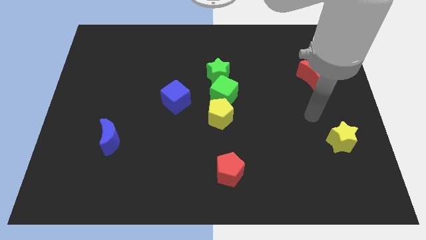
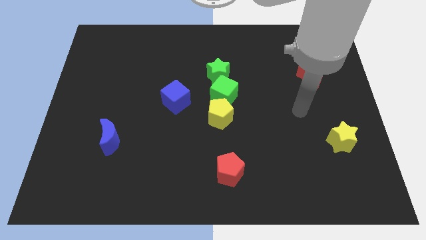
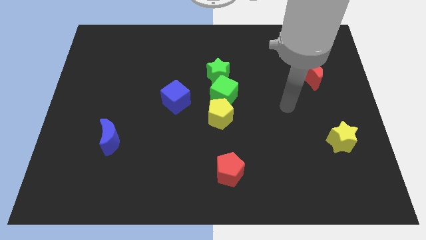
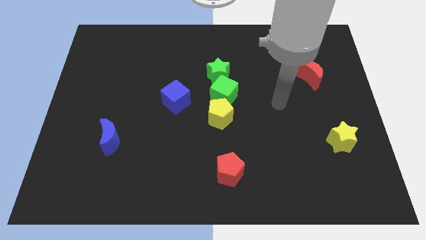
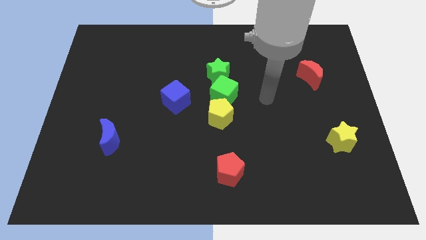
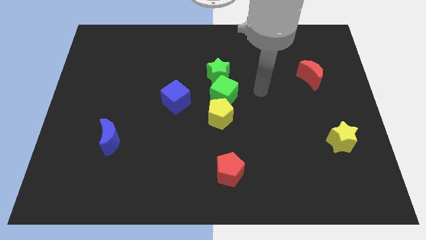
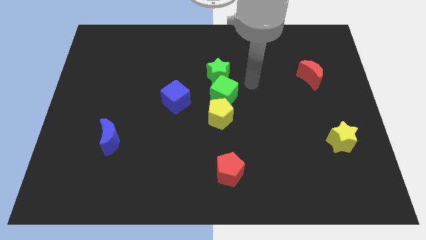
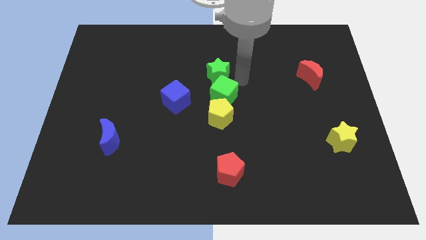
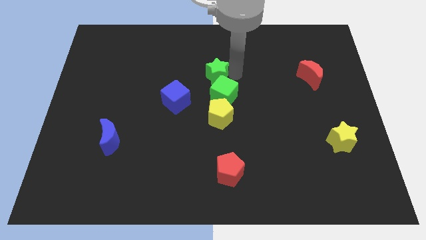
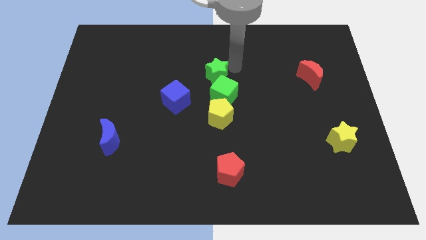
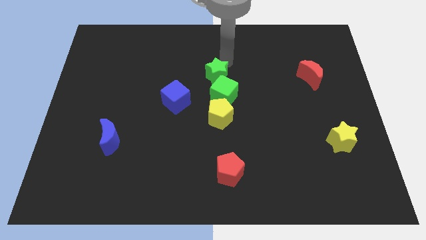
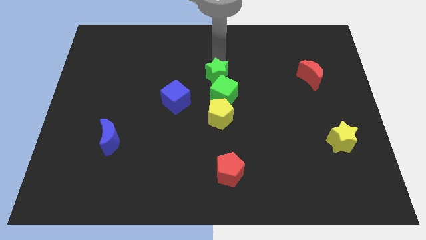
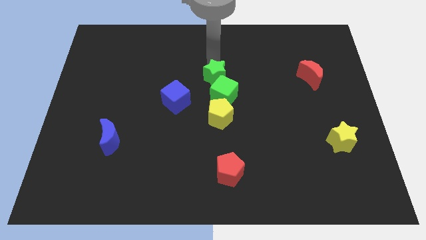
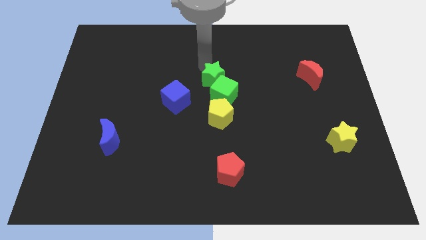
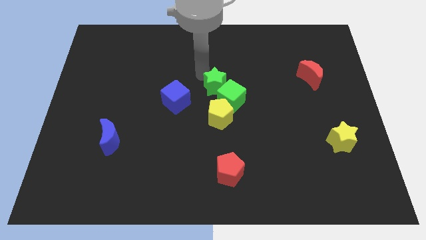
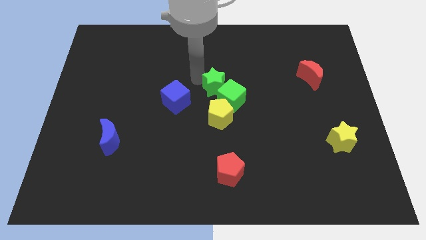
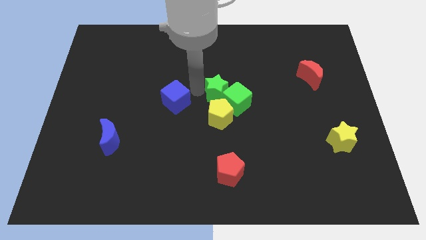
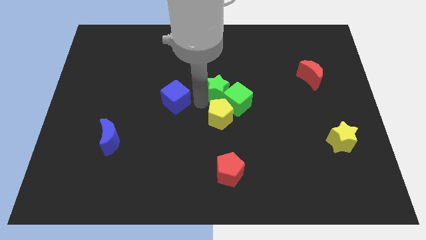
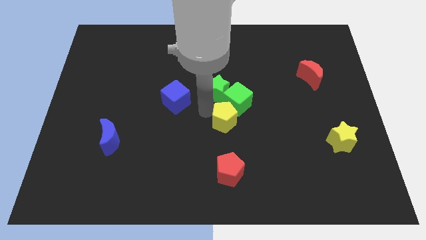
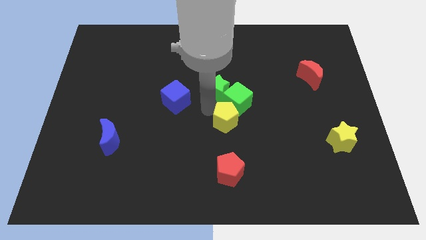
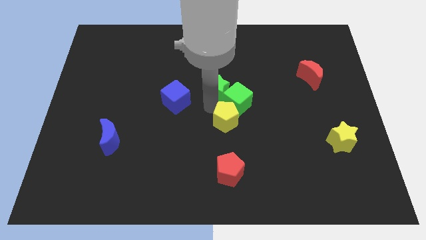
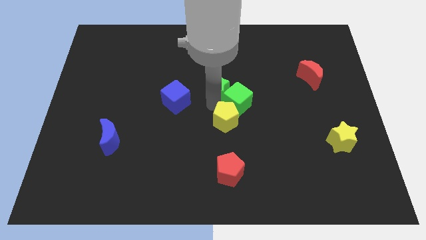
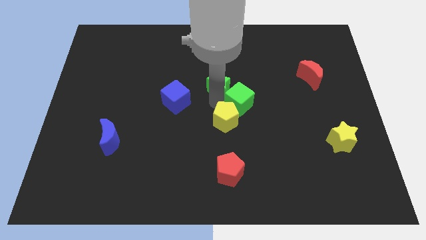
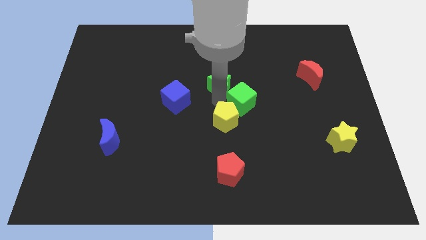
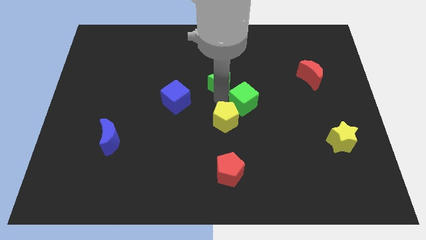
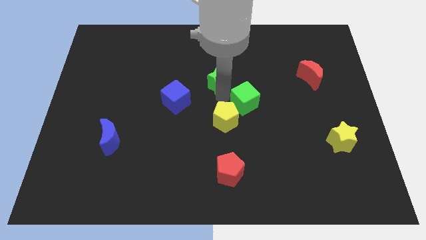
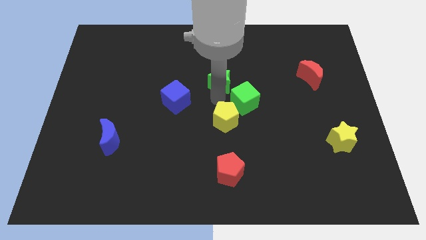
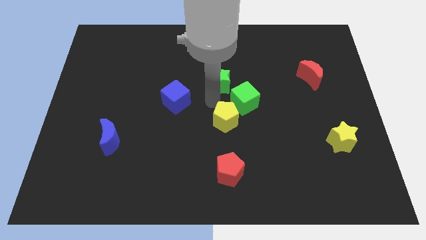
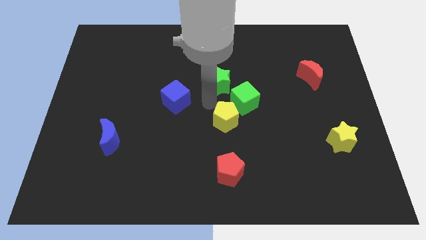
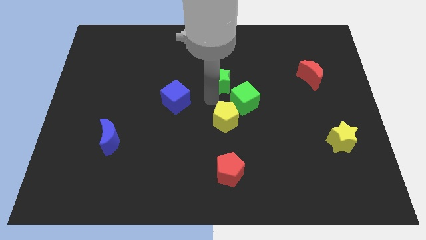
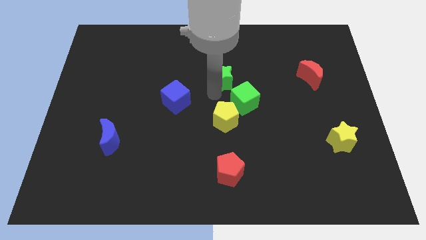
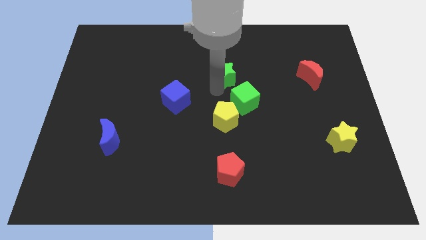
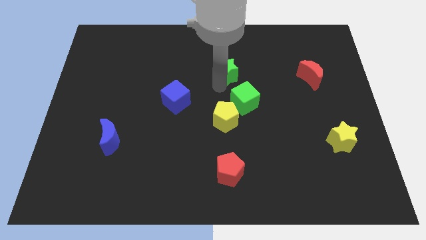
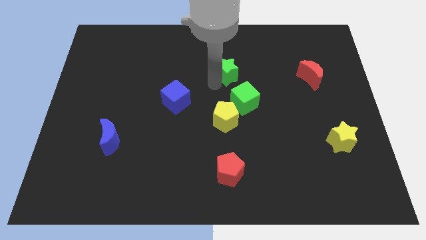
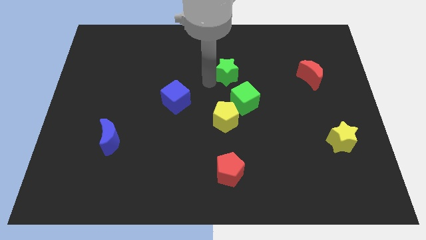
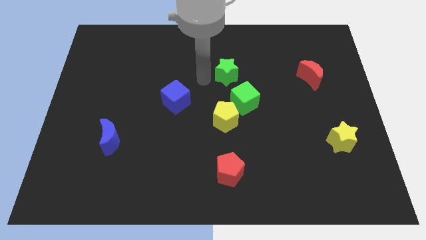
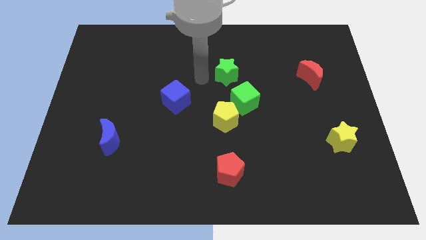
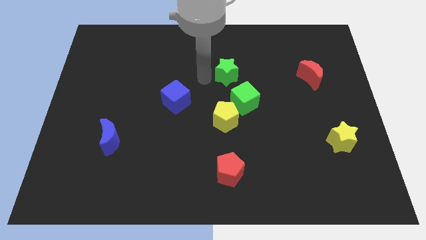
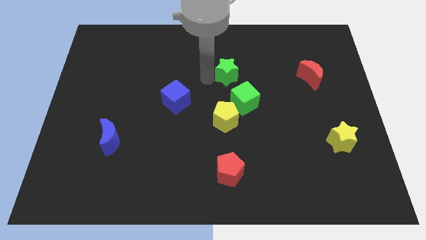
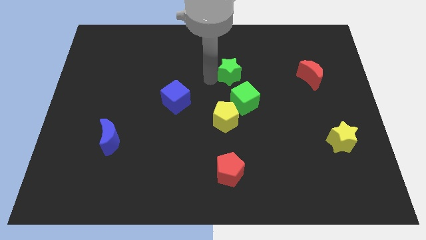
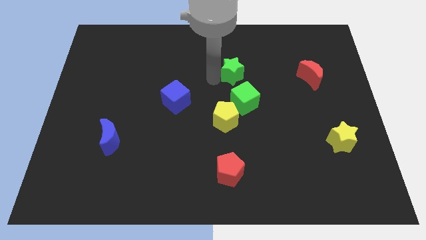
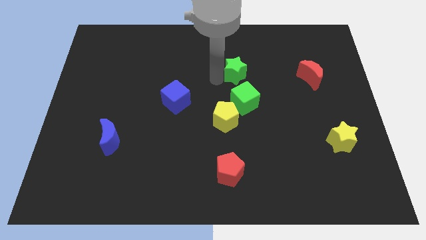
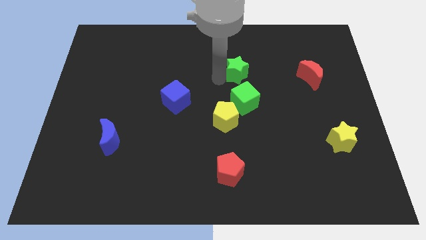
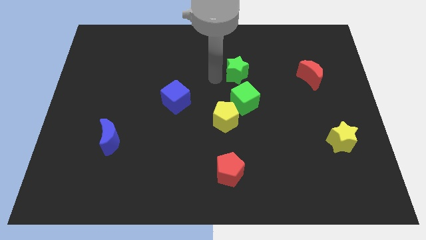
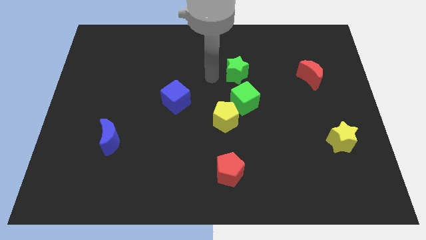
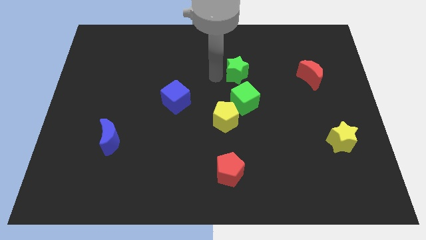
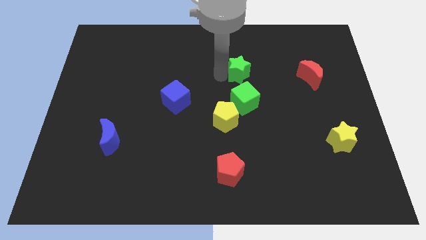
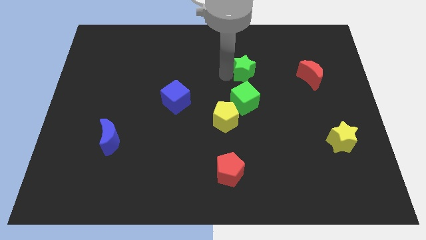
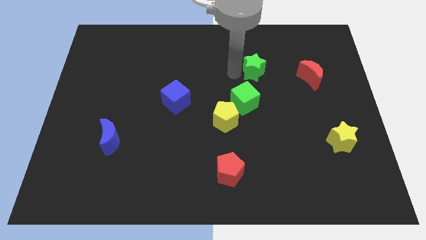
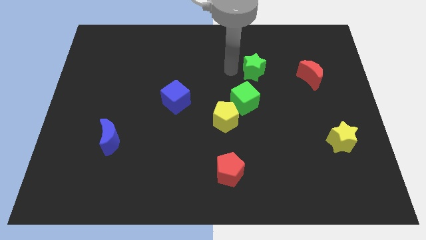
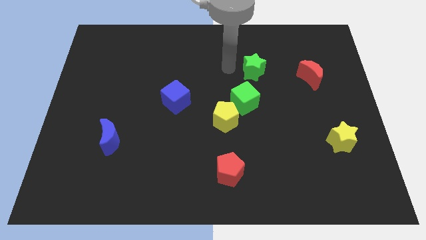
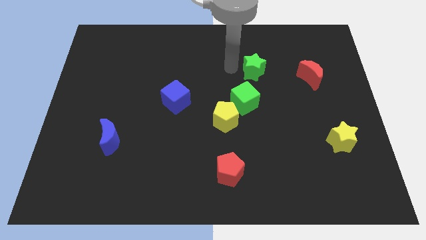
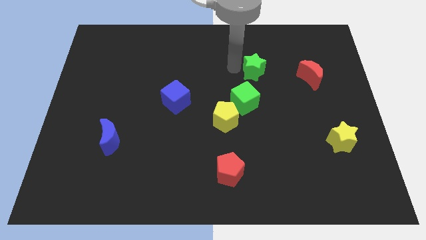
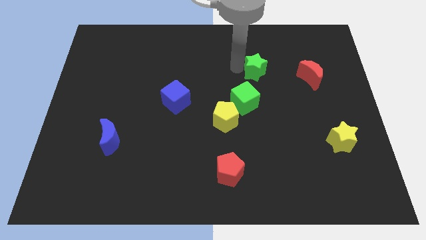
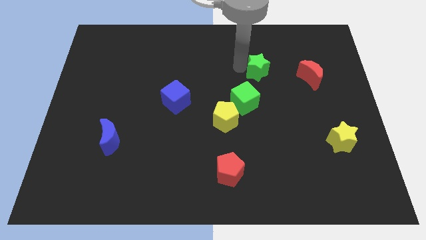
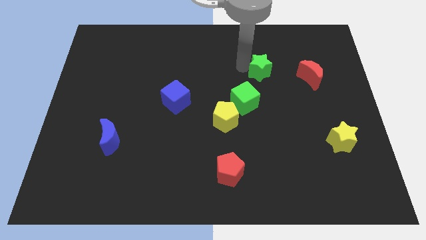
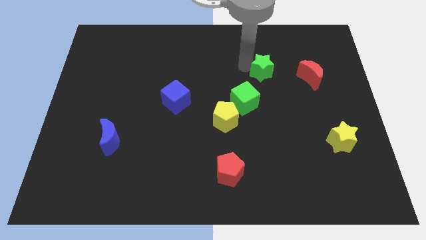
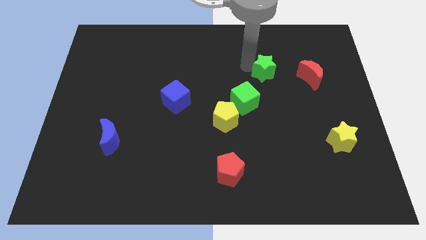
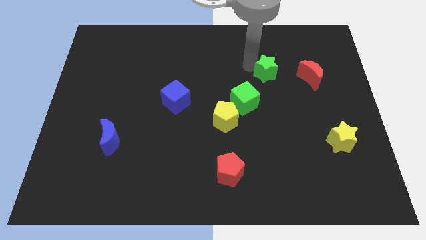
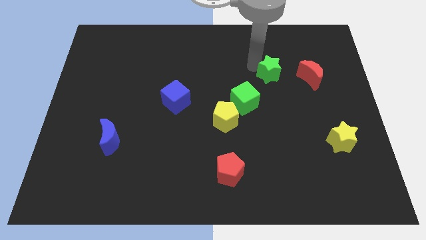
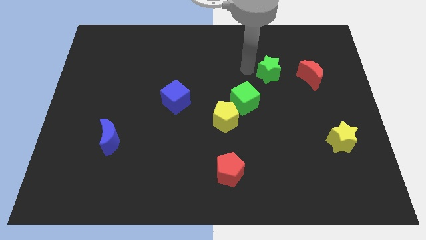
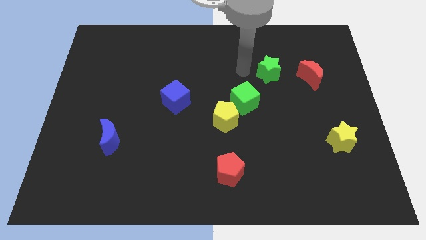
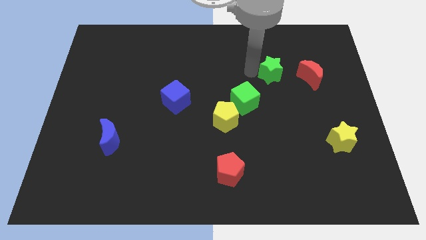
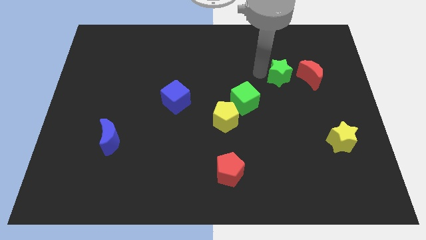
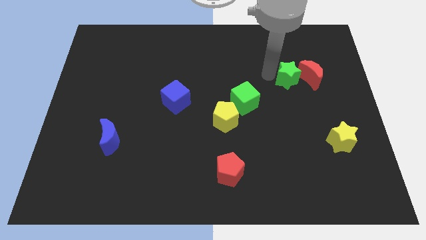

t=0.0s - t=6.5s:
slide the green star towards the red moon

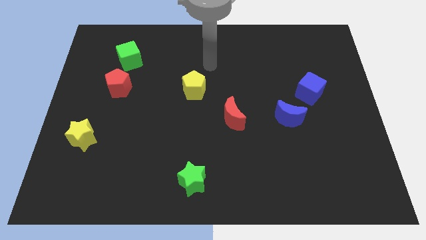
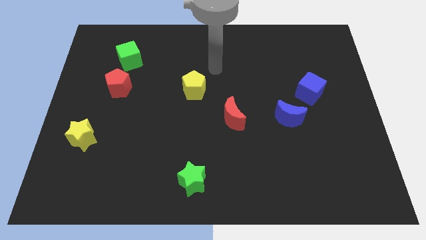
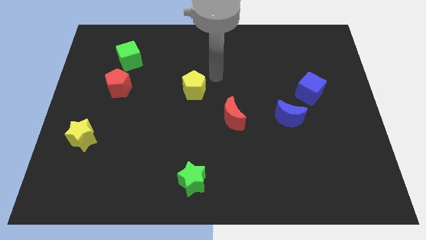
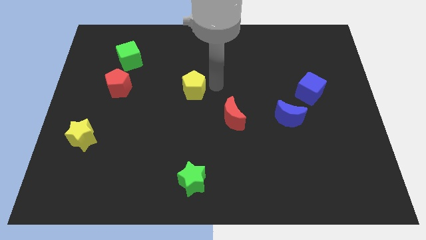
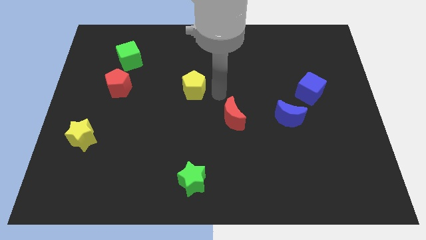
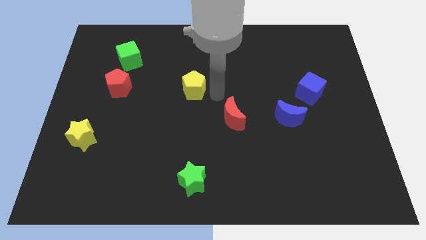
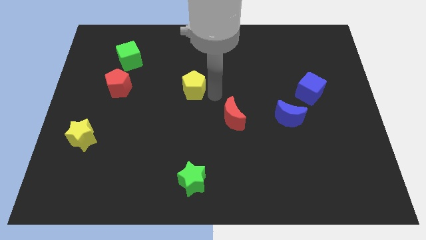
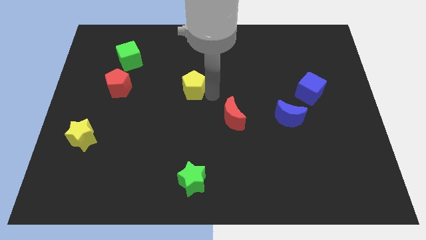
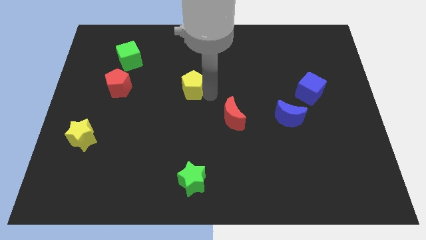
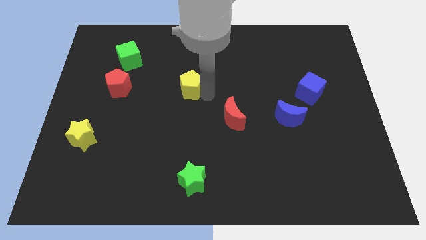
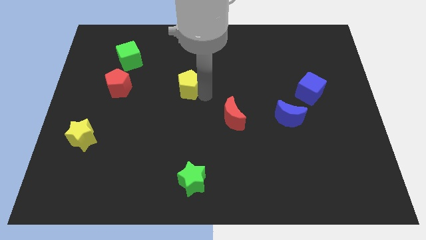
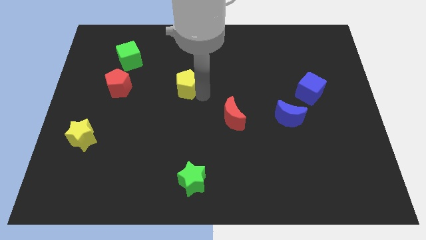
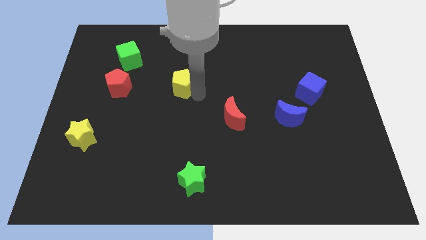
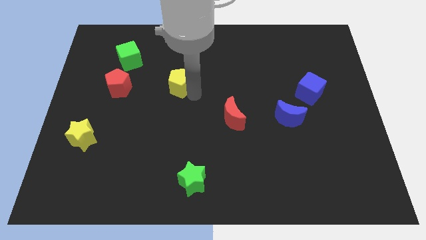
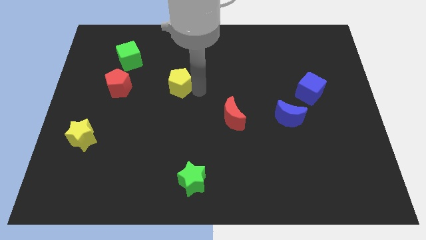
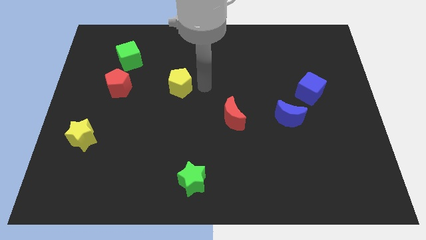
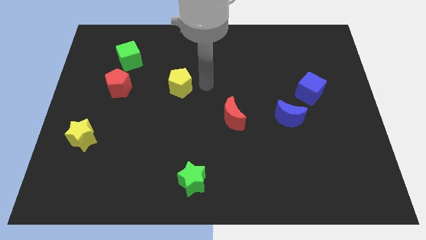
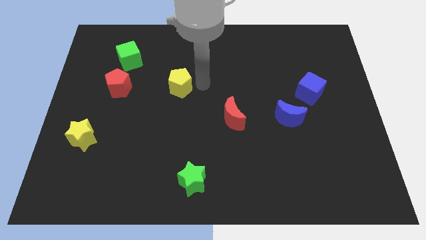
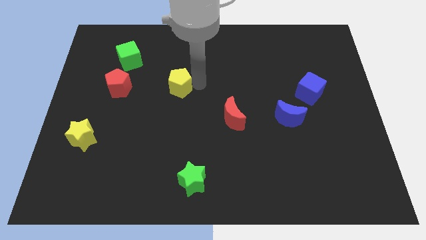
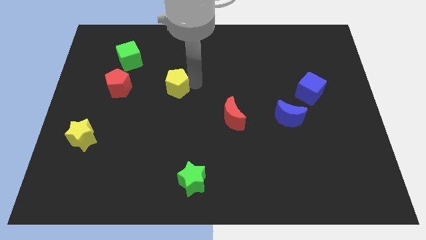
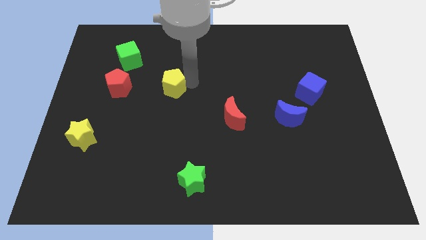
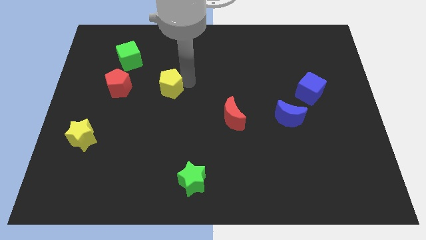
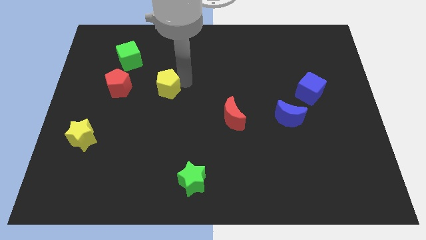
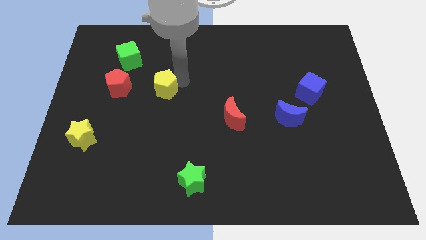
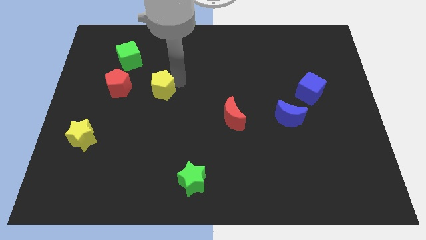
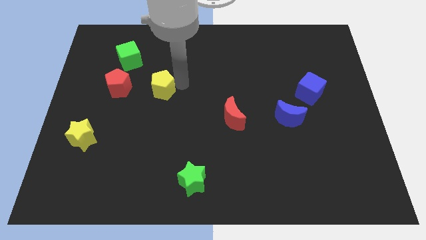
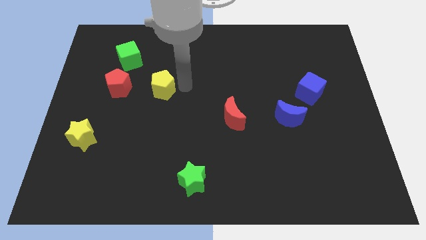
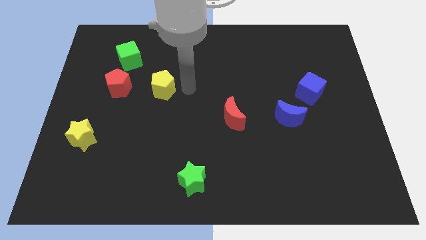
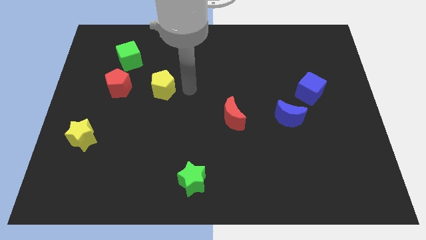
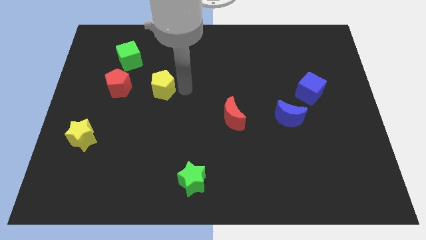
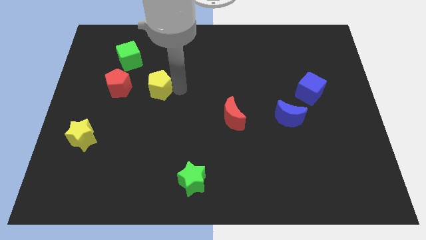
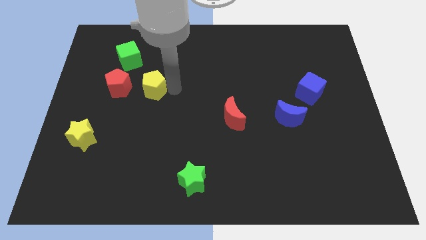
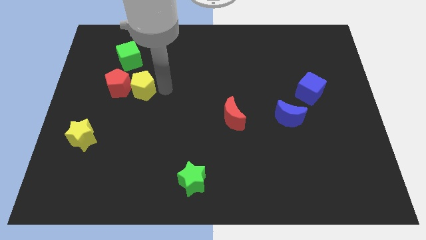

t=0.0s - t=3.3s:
move the yellow pentagon close to the red pentagon
